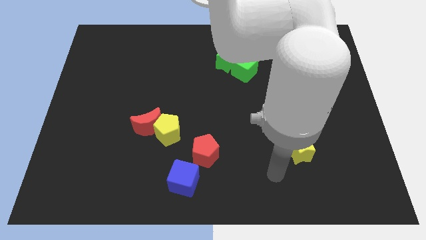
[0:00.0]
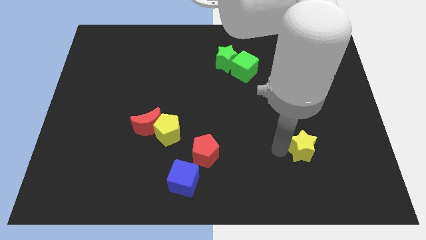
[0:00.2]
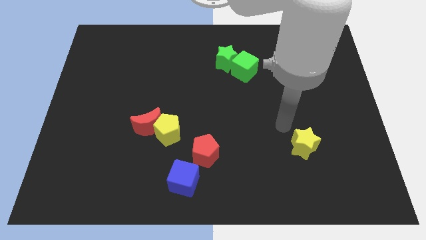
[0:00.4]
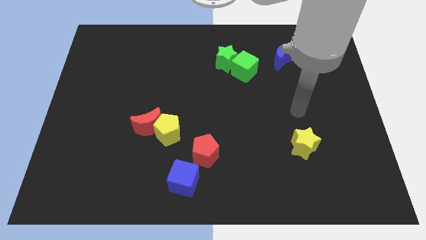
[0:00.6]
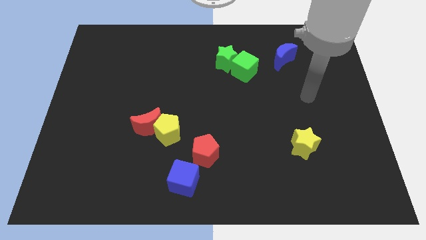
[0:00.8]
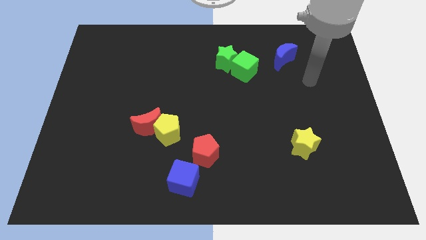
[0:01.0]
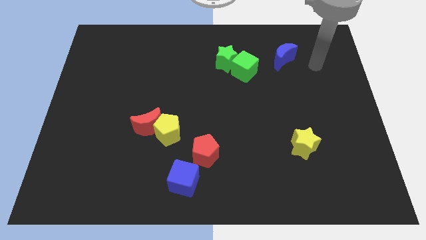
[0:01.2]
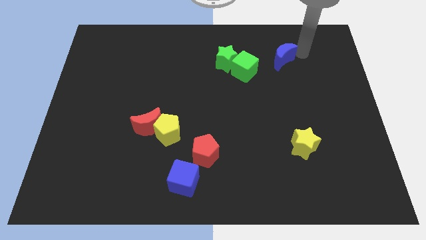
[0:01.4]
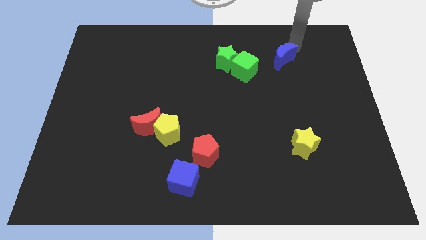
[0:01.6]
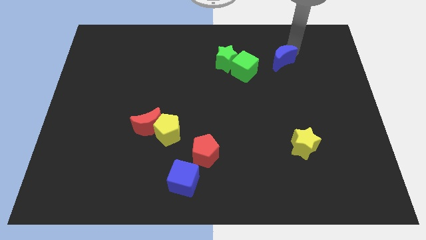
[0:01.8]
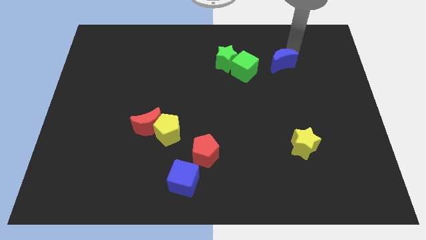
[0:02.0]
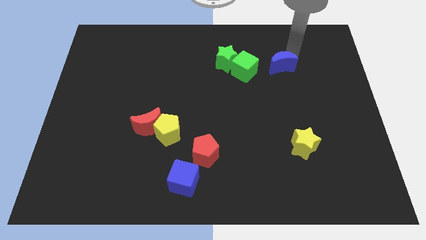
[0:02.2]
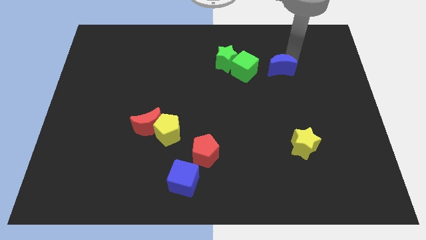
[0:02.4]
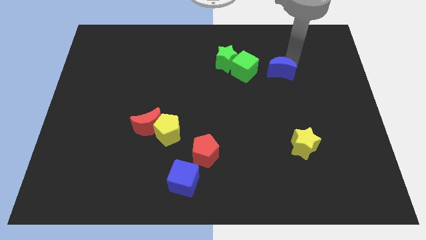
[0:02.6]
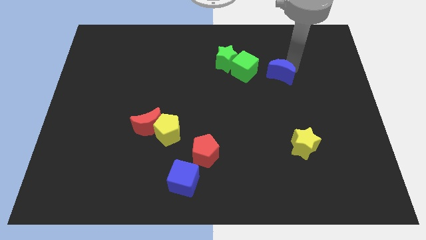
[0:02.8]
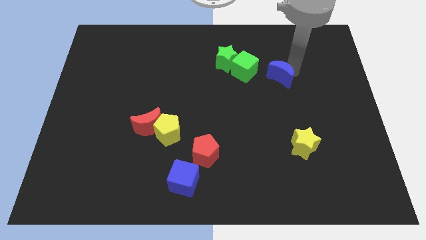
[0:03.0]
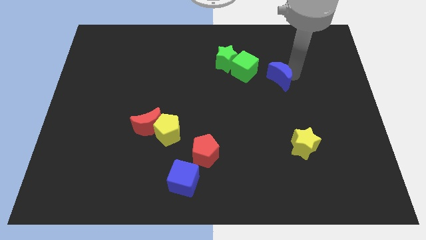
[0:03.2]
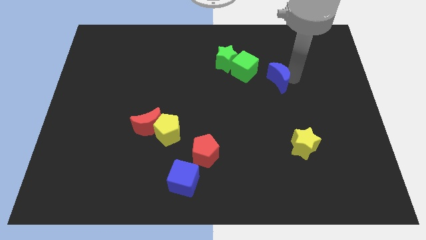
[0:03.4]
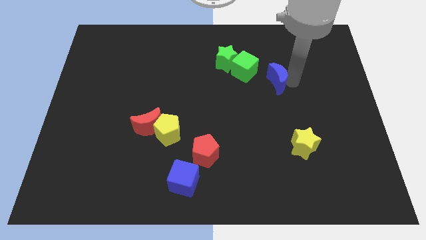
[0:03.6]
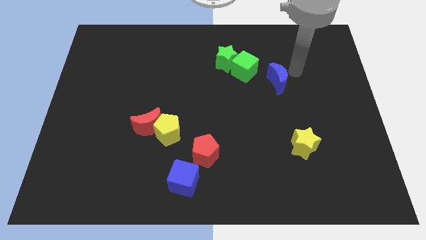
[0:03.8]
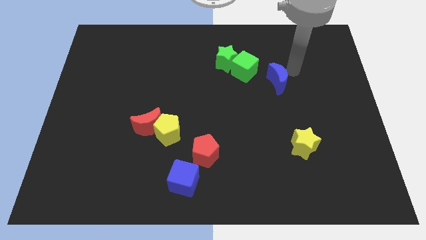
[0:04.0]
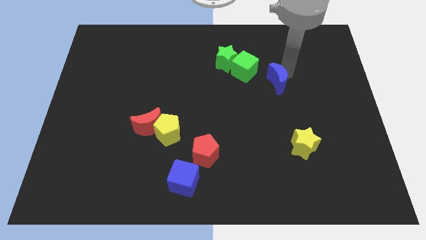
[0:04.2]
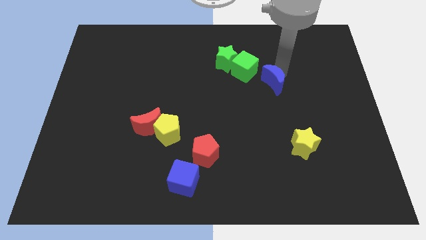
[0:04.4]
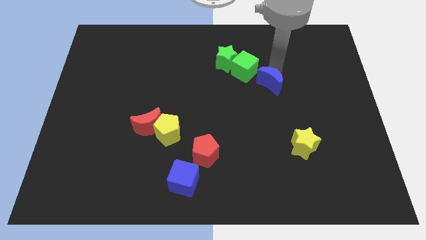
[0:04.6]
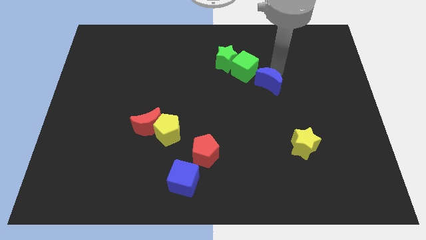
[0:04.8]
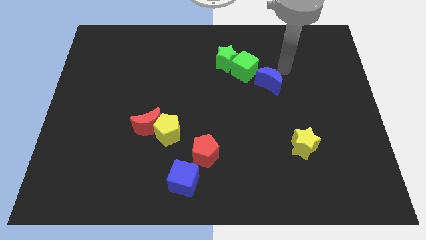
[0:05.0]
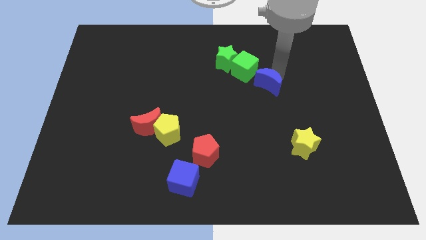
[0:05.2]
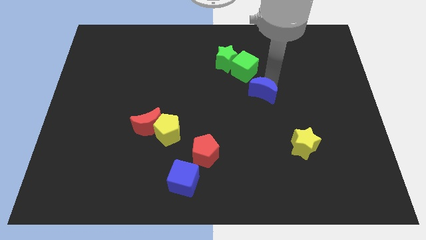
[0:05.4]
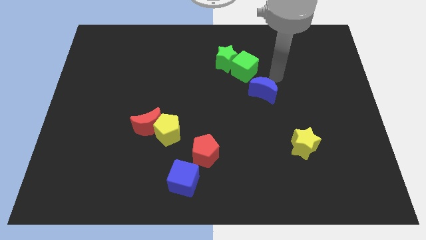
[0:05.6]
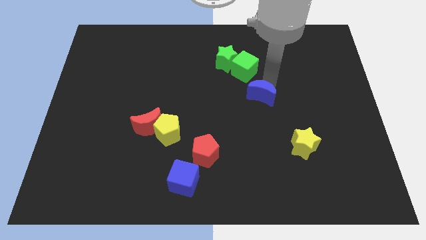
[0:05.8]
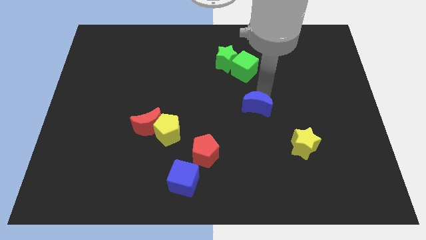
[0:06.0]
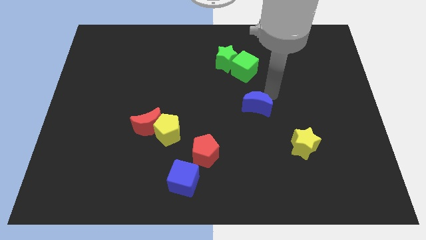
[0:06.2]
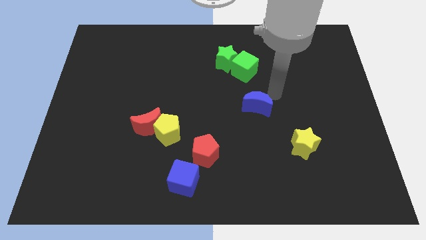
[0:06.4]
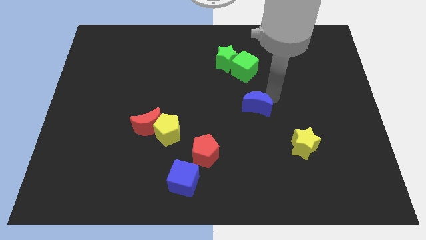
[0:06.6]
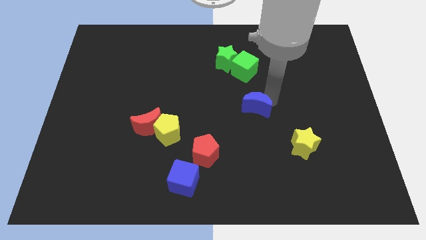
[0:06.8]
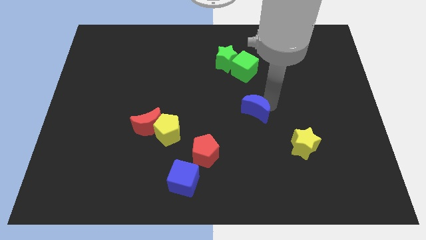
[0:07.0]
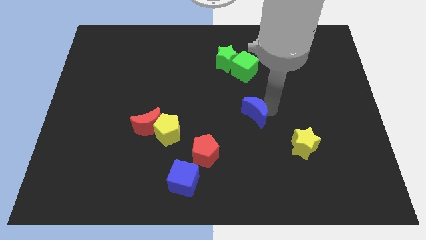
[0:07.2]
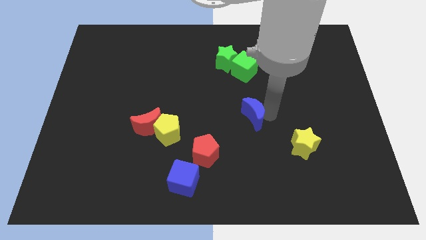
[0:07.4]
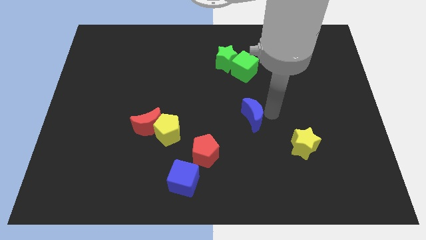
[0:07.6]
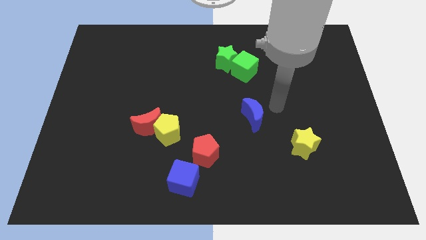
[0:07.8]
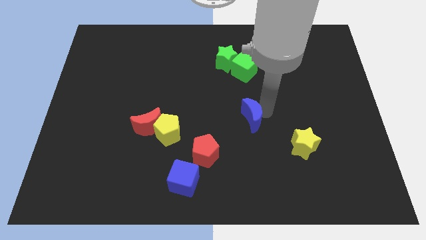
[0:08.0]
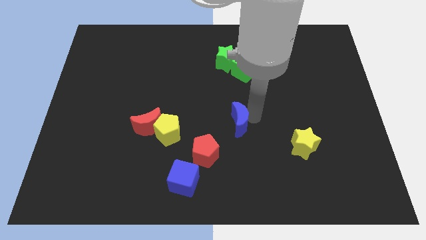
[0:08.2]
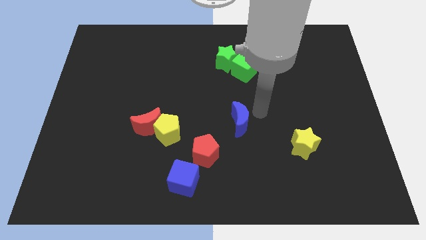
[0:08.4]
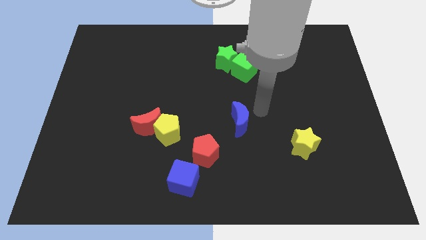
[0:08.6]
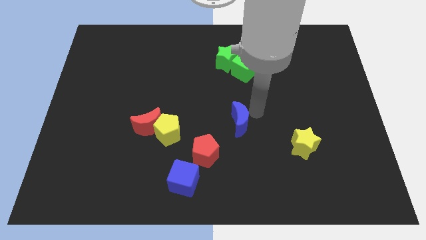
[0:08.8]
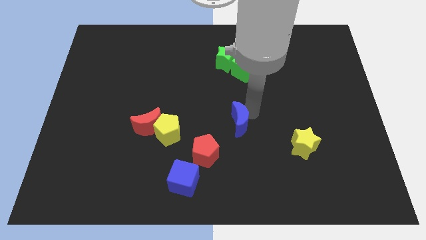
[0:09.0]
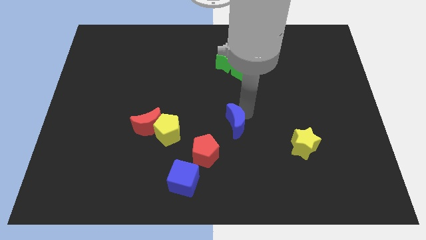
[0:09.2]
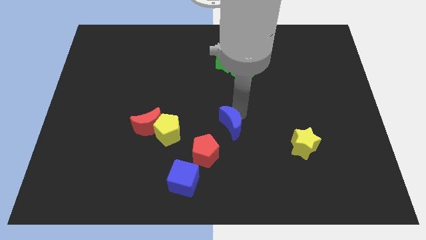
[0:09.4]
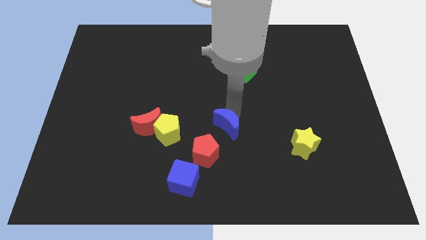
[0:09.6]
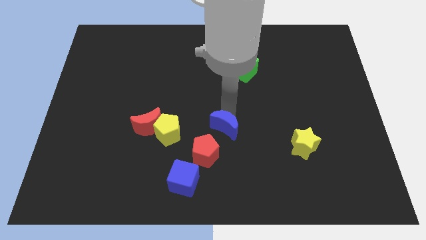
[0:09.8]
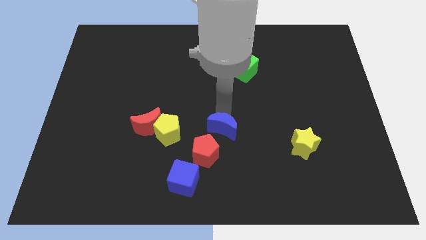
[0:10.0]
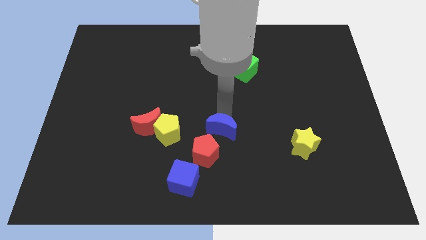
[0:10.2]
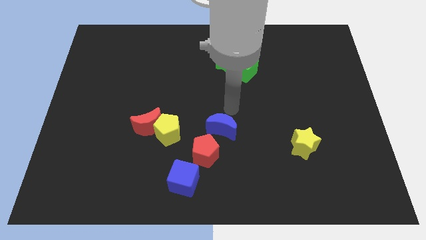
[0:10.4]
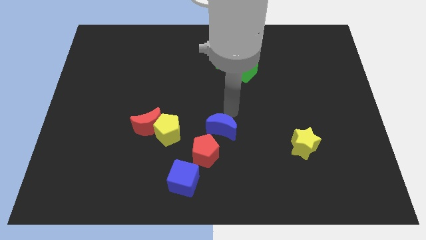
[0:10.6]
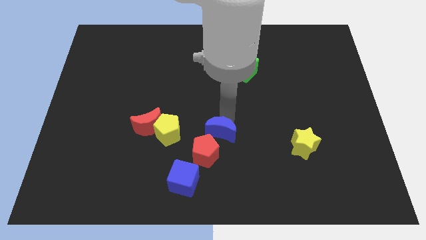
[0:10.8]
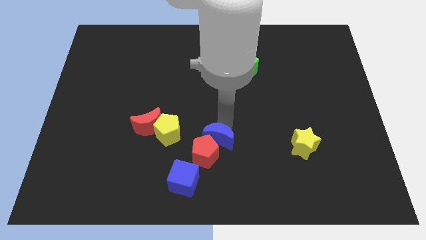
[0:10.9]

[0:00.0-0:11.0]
move the blue moon towards the red pentagon

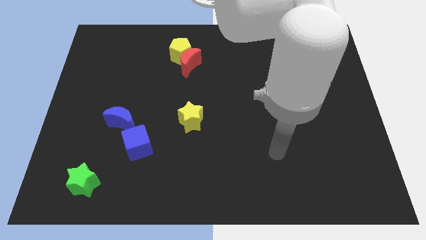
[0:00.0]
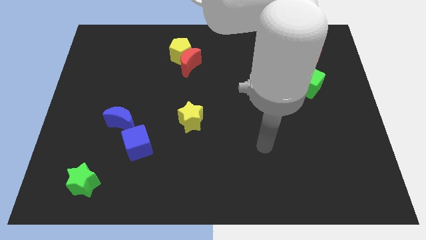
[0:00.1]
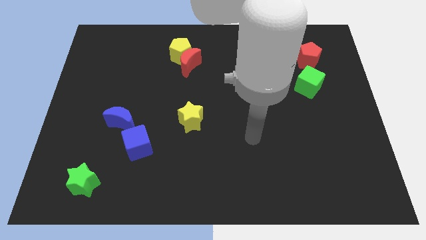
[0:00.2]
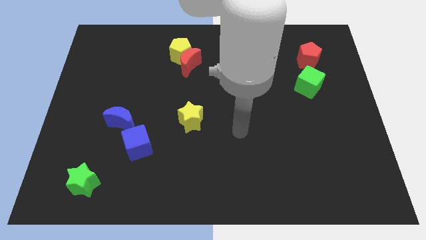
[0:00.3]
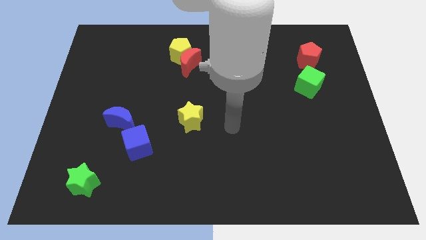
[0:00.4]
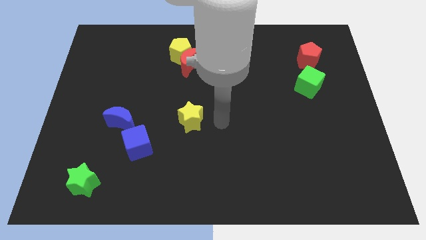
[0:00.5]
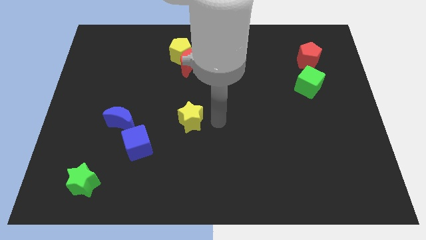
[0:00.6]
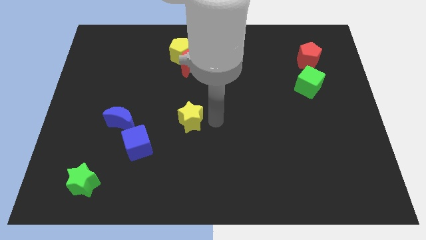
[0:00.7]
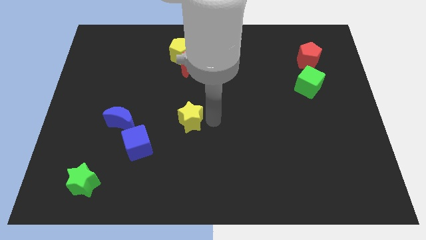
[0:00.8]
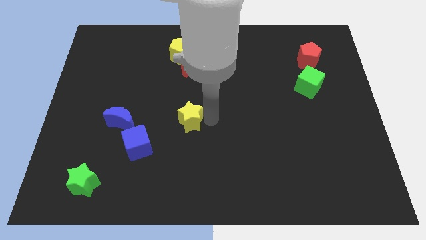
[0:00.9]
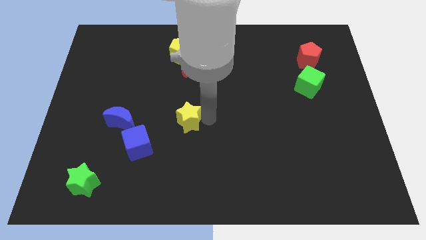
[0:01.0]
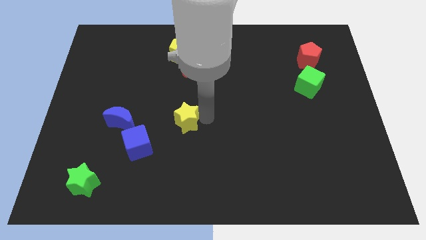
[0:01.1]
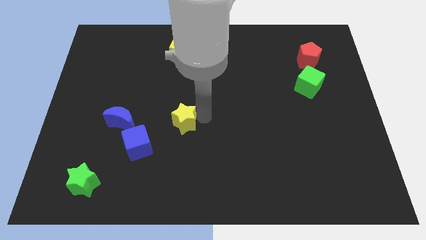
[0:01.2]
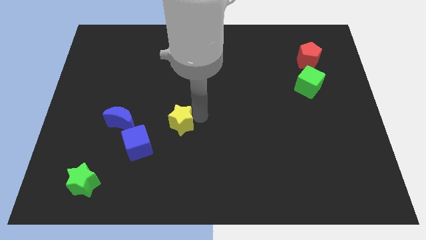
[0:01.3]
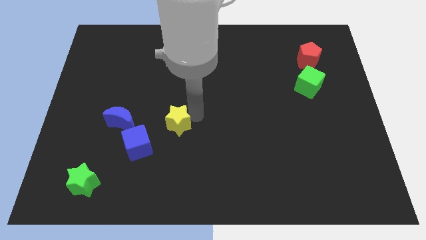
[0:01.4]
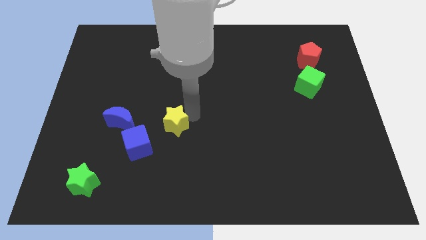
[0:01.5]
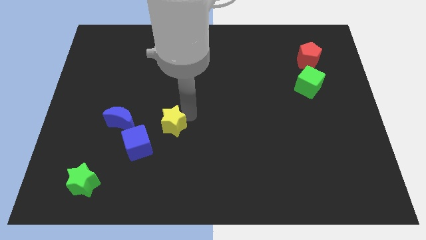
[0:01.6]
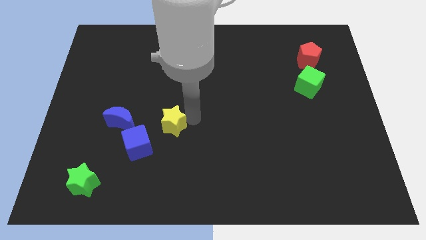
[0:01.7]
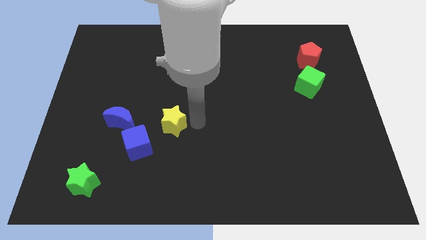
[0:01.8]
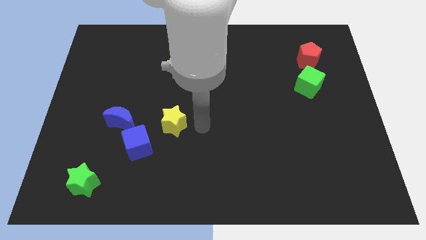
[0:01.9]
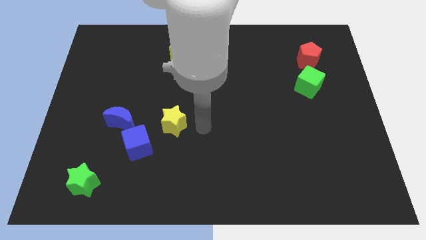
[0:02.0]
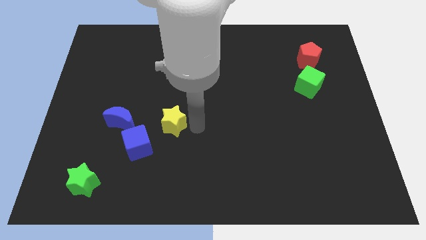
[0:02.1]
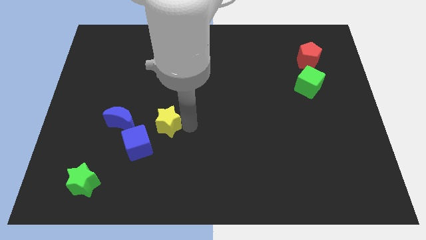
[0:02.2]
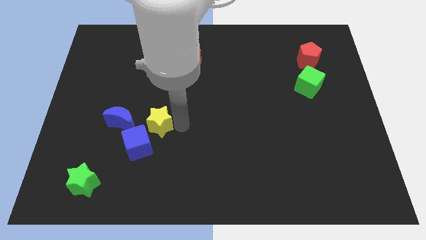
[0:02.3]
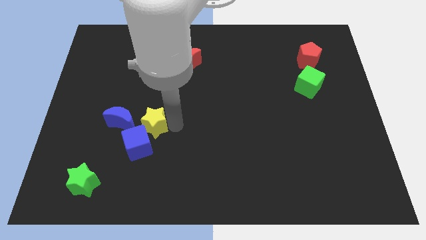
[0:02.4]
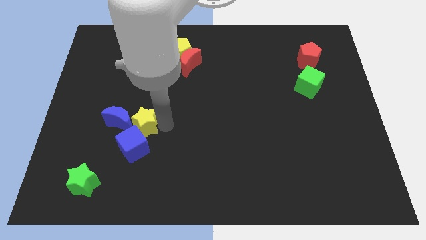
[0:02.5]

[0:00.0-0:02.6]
move the yellow star towards the blue moon
